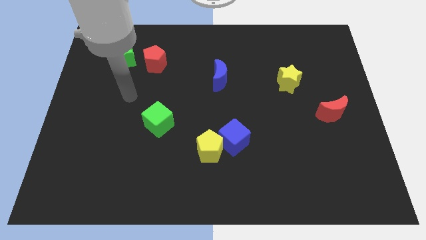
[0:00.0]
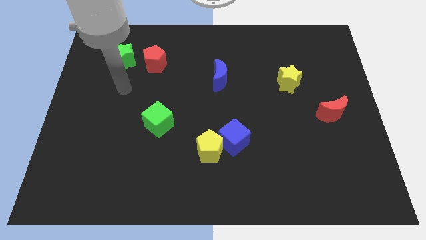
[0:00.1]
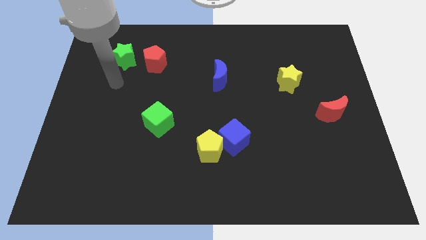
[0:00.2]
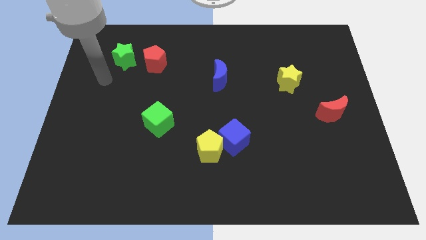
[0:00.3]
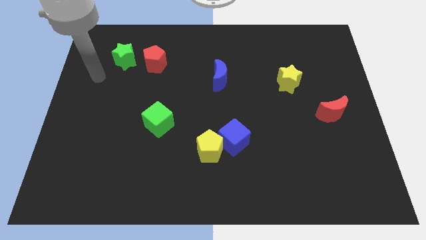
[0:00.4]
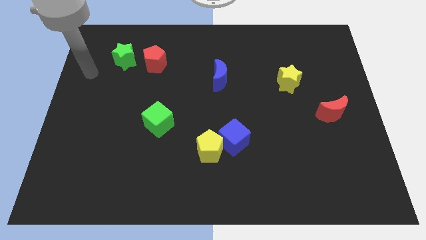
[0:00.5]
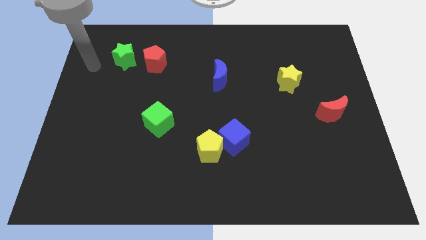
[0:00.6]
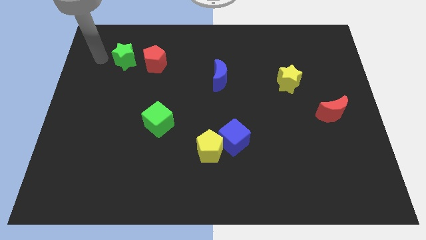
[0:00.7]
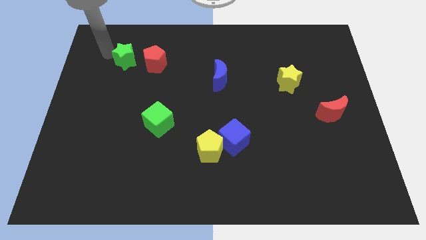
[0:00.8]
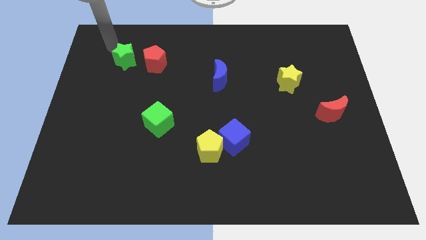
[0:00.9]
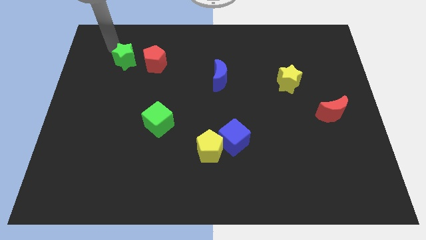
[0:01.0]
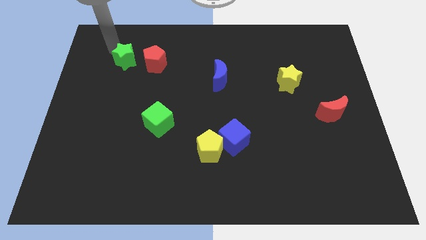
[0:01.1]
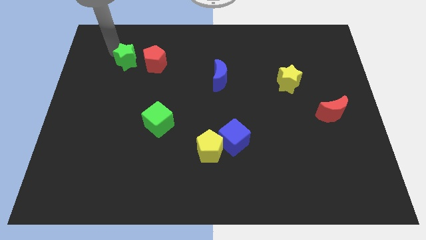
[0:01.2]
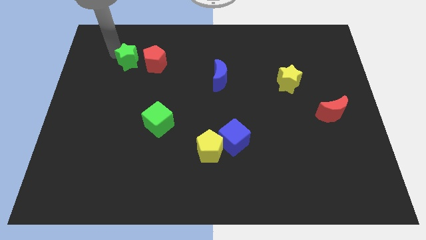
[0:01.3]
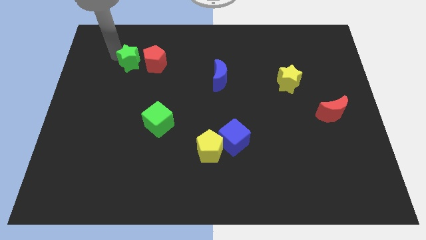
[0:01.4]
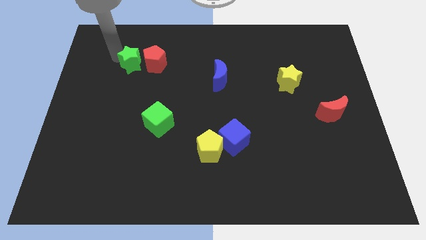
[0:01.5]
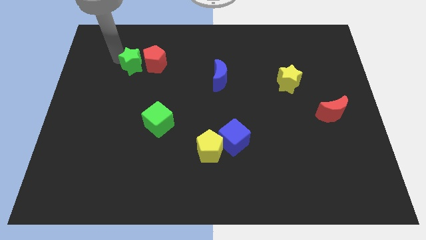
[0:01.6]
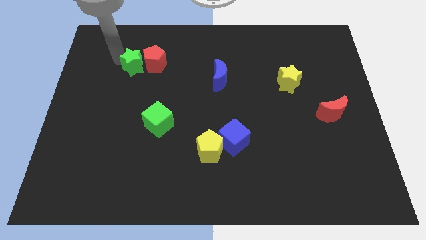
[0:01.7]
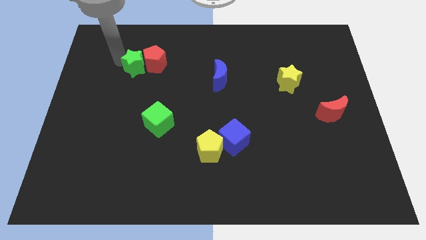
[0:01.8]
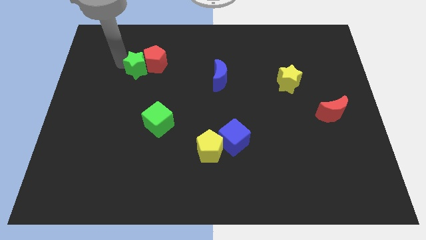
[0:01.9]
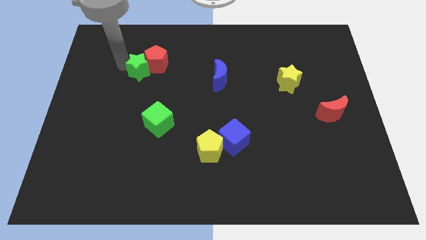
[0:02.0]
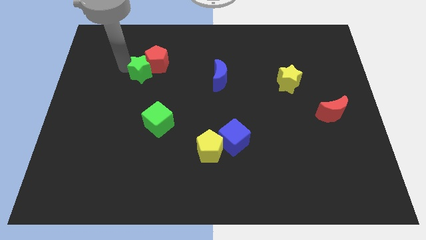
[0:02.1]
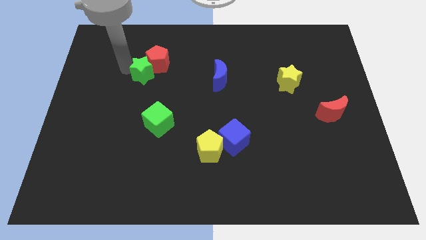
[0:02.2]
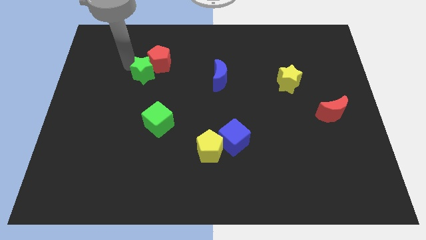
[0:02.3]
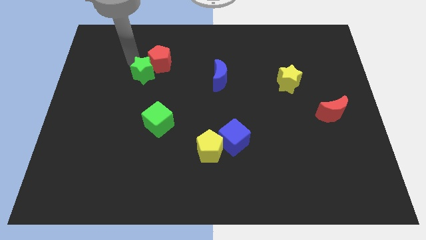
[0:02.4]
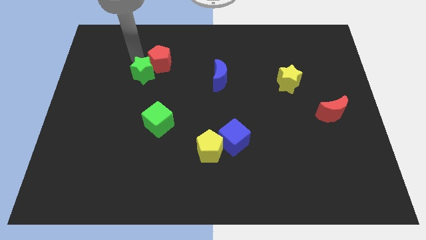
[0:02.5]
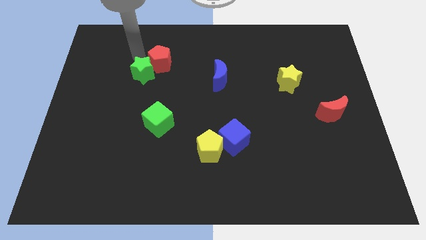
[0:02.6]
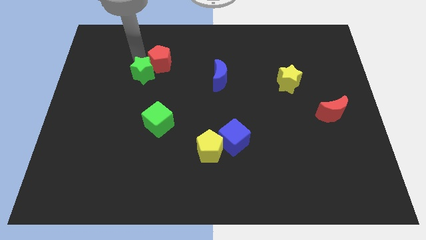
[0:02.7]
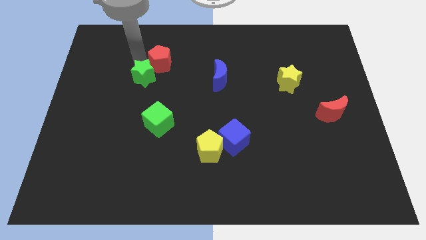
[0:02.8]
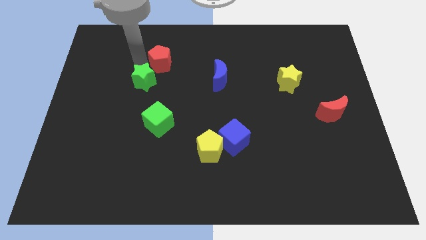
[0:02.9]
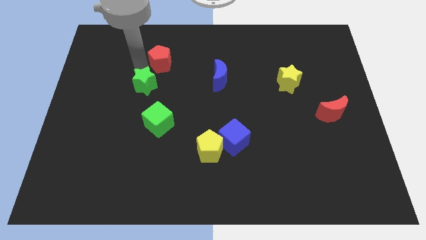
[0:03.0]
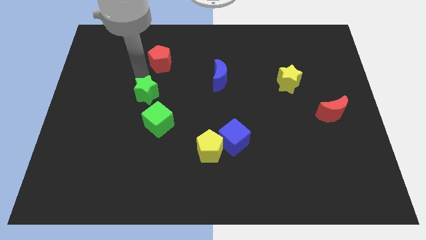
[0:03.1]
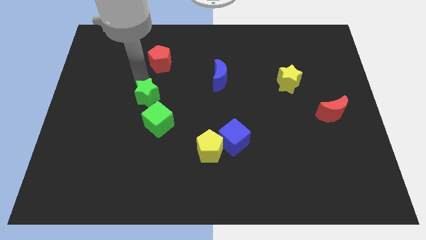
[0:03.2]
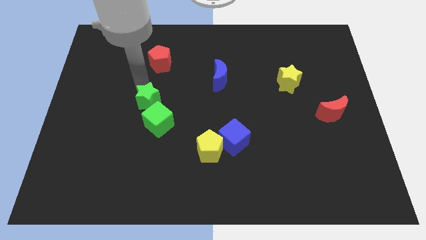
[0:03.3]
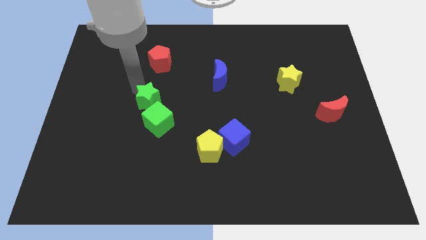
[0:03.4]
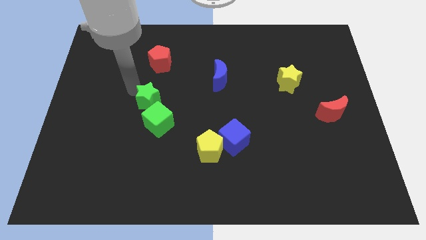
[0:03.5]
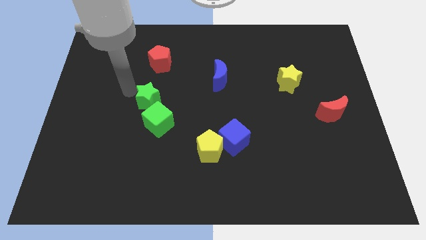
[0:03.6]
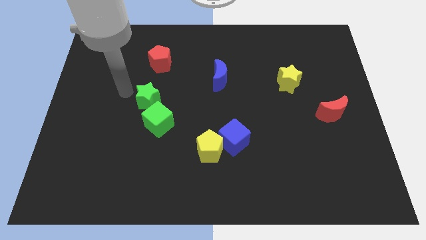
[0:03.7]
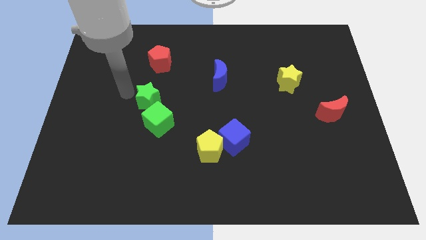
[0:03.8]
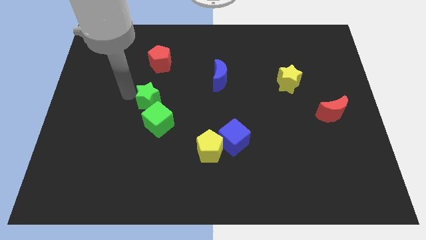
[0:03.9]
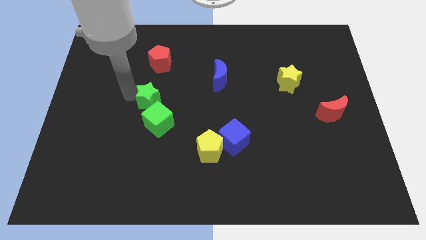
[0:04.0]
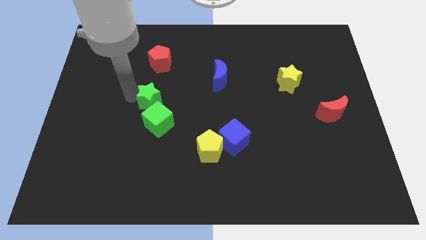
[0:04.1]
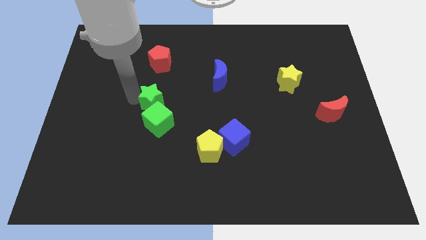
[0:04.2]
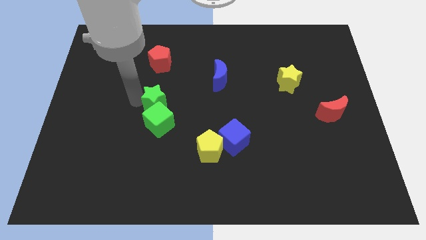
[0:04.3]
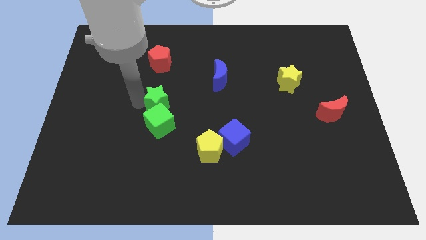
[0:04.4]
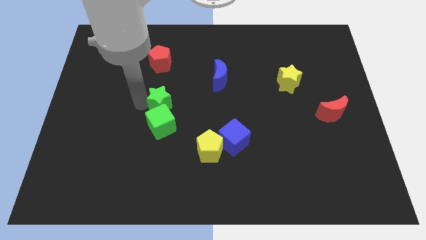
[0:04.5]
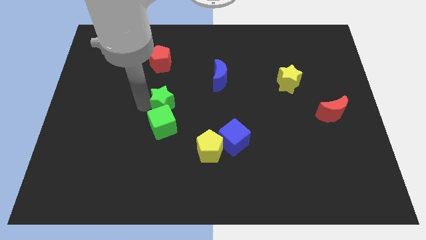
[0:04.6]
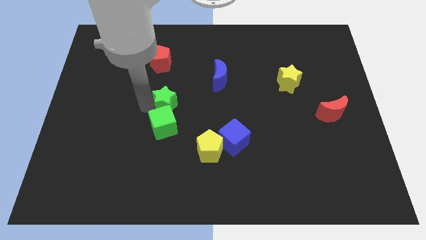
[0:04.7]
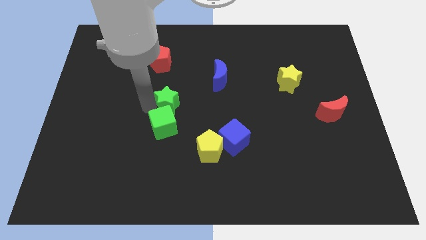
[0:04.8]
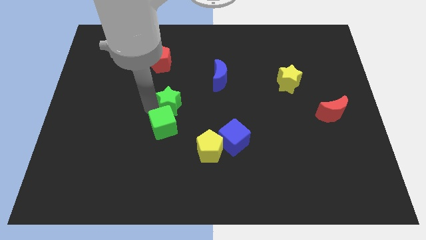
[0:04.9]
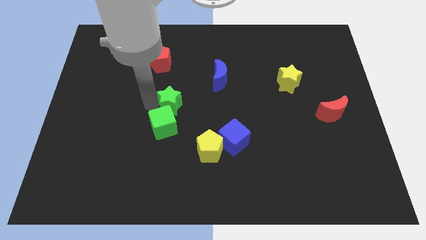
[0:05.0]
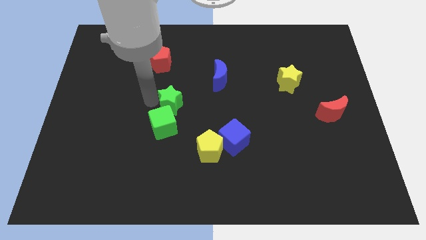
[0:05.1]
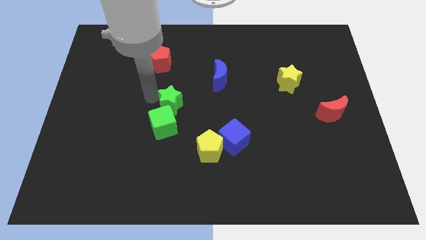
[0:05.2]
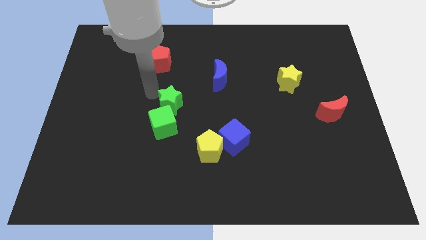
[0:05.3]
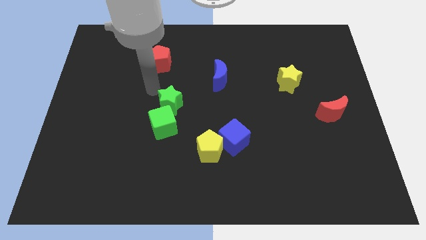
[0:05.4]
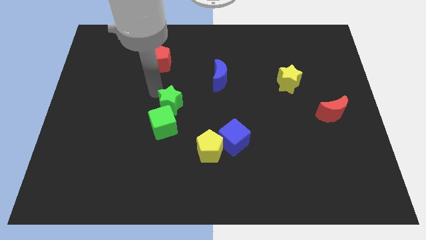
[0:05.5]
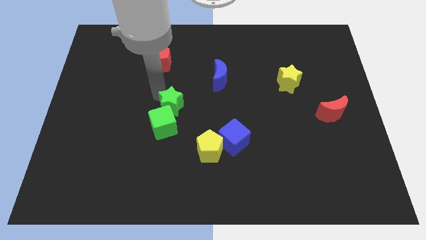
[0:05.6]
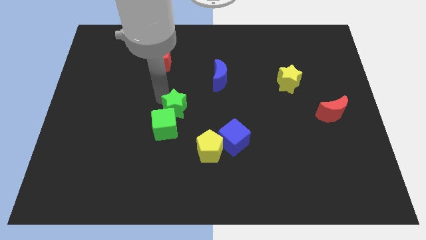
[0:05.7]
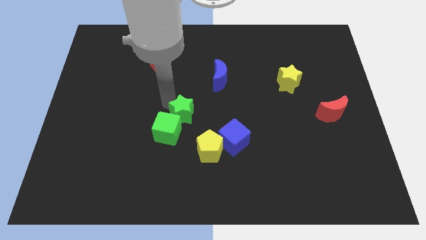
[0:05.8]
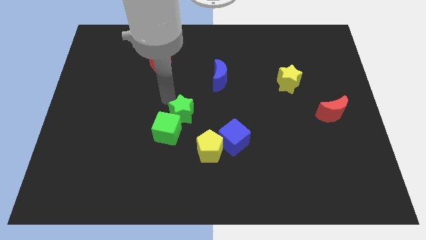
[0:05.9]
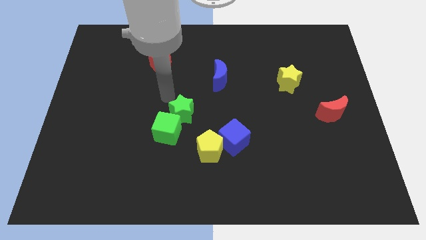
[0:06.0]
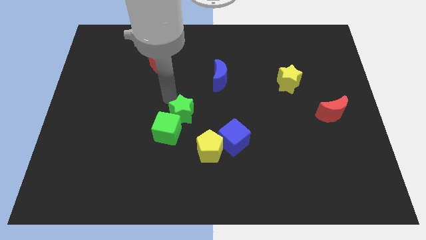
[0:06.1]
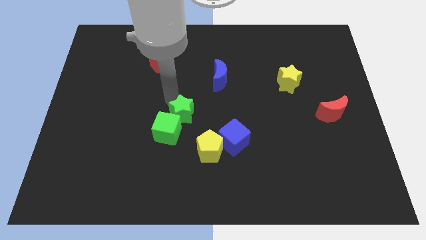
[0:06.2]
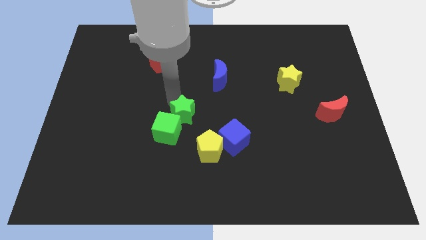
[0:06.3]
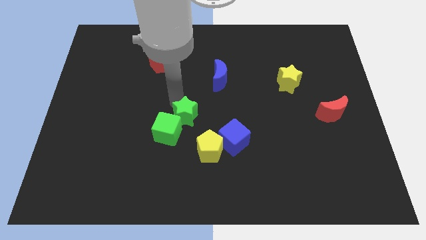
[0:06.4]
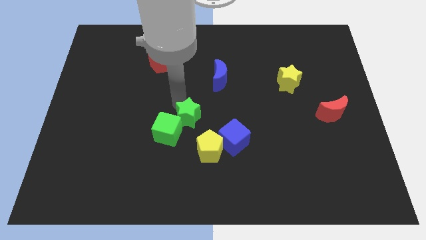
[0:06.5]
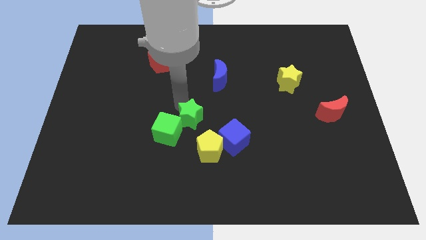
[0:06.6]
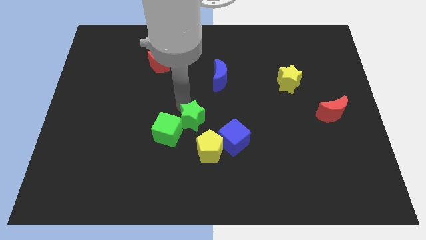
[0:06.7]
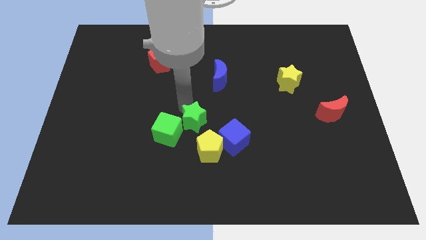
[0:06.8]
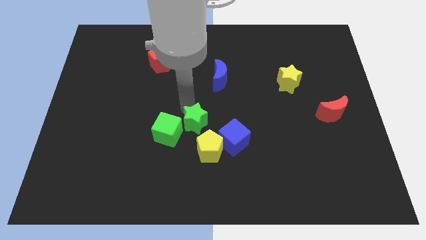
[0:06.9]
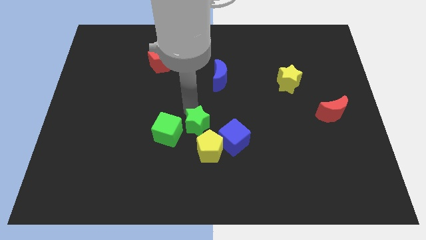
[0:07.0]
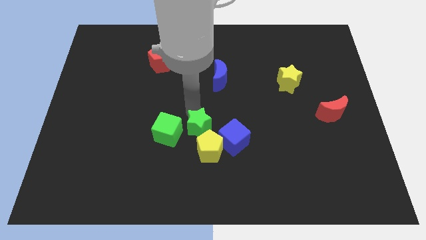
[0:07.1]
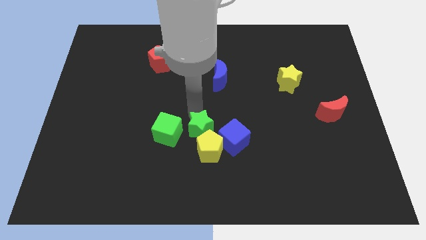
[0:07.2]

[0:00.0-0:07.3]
move the green star next to the yellow pentagon
